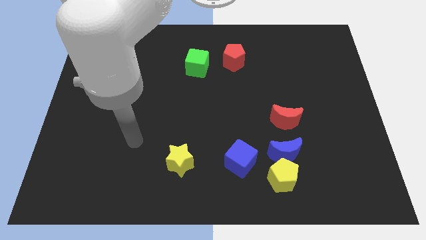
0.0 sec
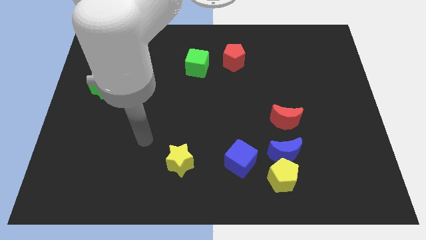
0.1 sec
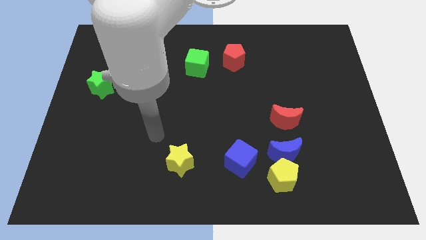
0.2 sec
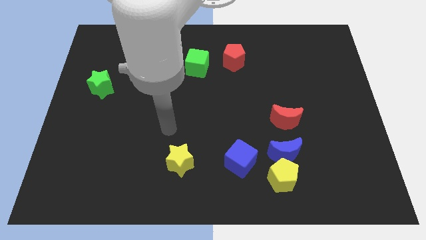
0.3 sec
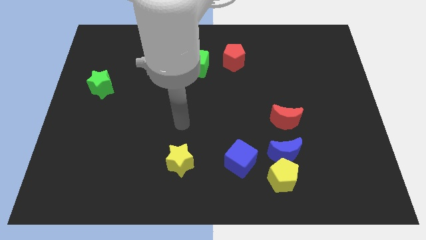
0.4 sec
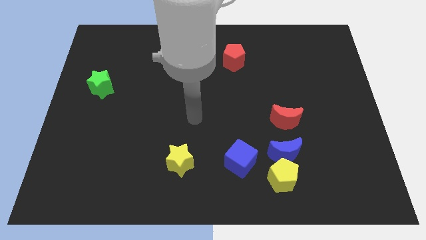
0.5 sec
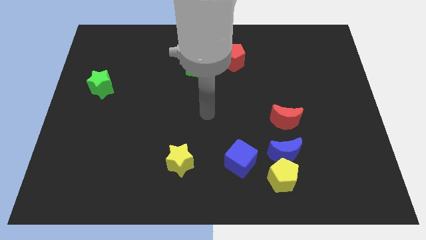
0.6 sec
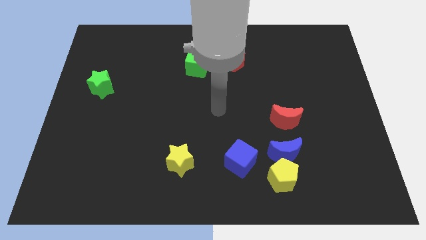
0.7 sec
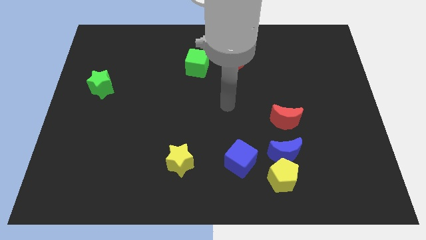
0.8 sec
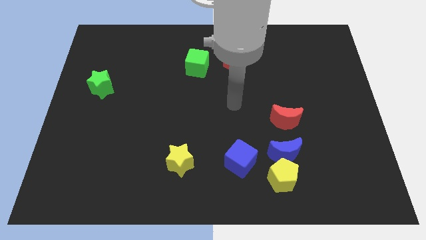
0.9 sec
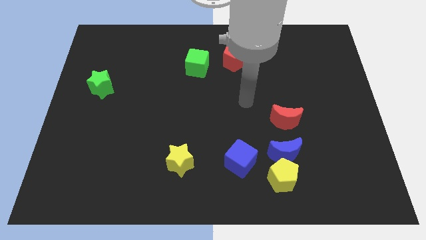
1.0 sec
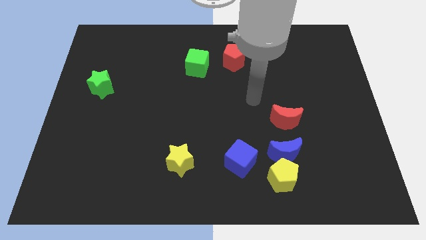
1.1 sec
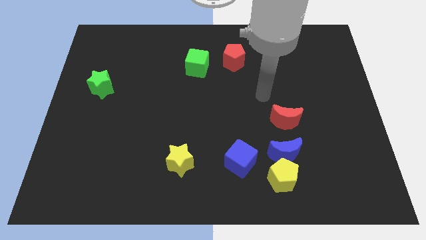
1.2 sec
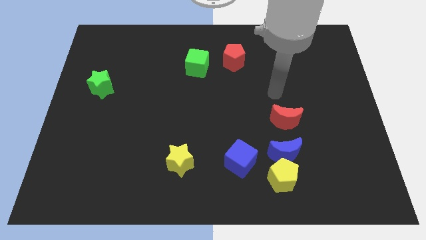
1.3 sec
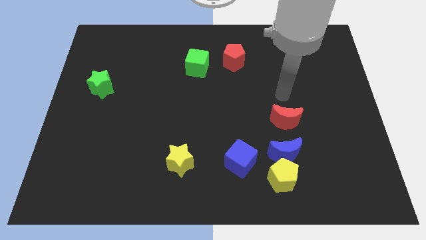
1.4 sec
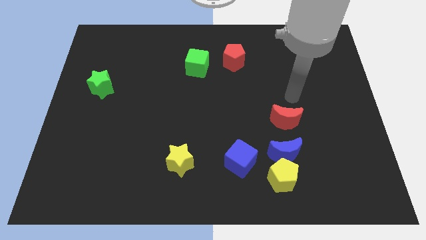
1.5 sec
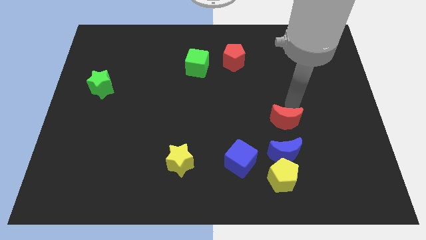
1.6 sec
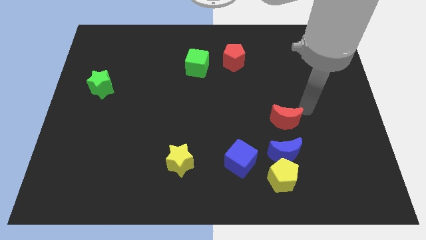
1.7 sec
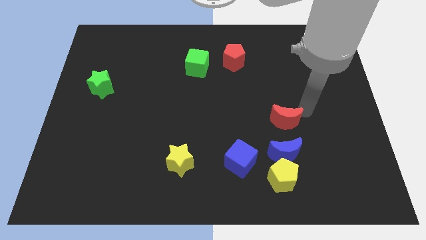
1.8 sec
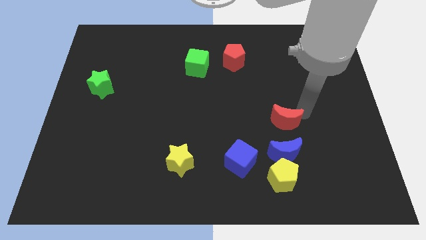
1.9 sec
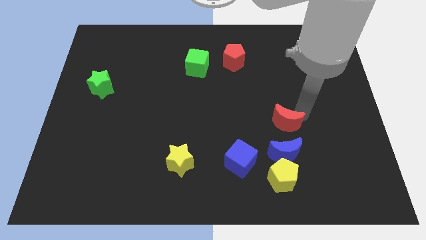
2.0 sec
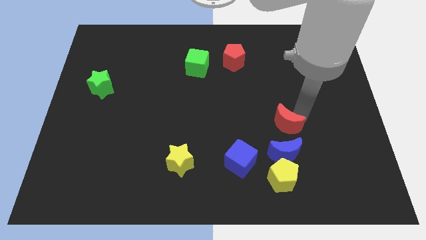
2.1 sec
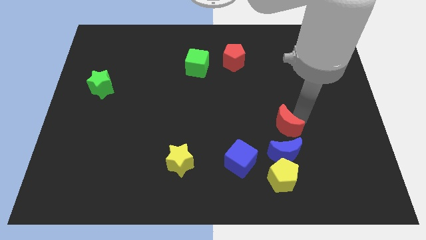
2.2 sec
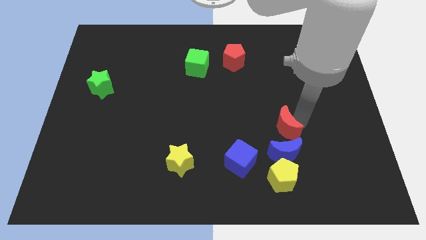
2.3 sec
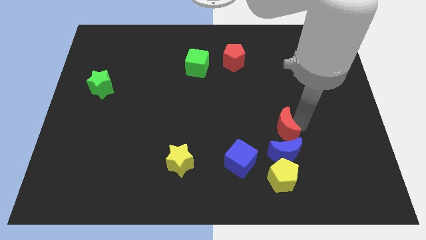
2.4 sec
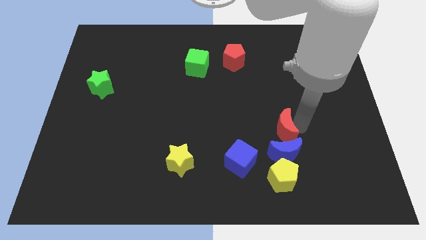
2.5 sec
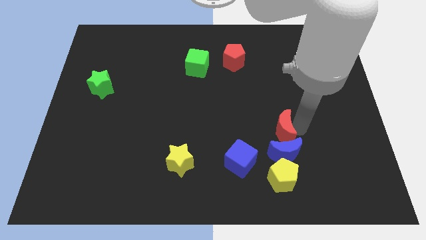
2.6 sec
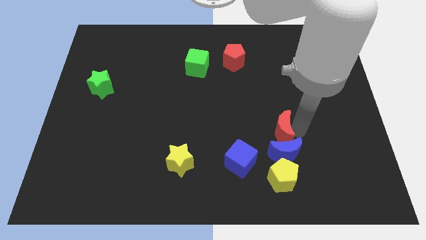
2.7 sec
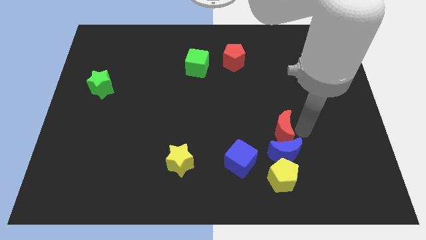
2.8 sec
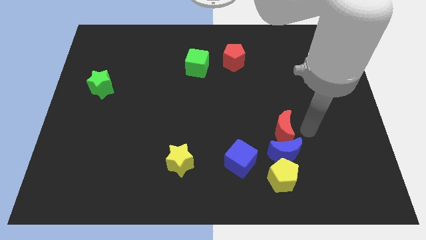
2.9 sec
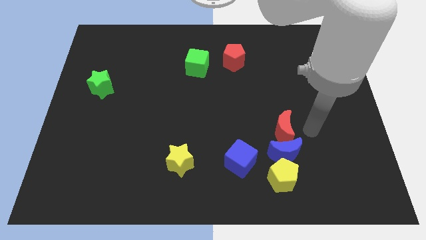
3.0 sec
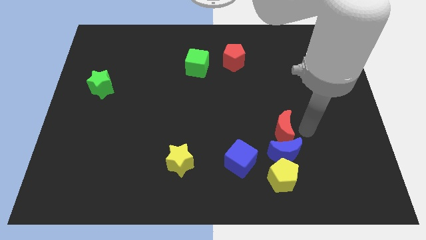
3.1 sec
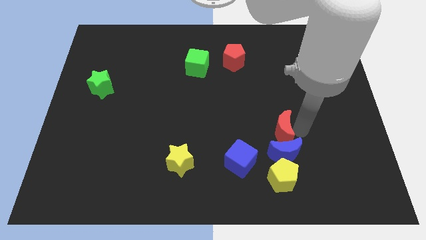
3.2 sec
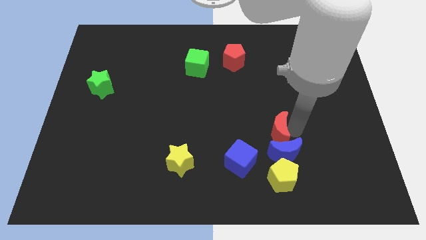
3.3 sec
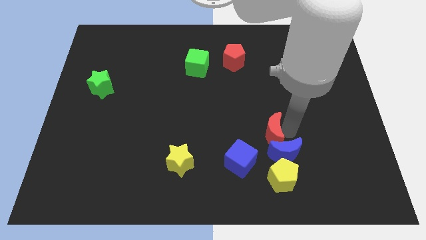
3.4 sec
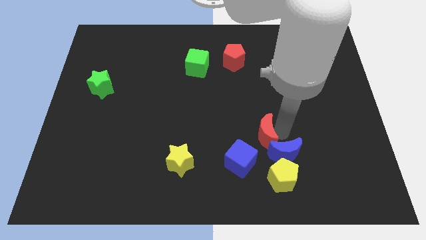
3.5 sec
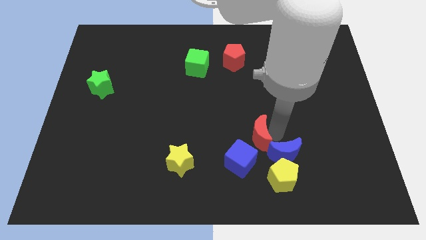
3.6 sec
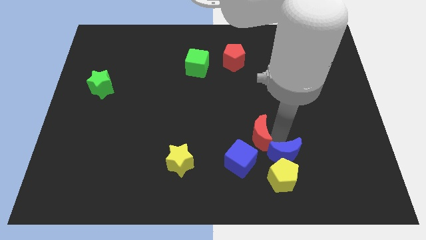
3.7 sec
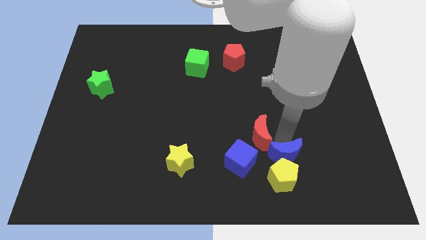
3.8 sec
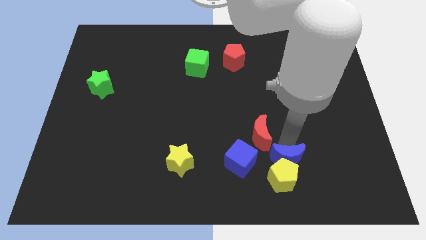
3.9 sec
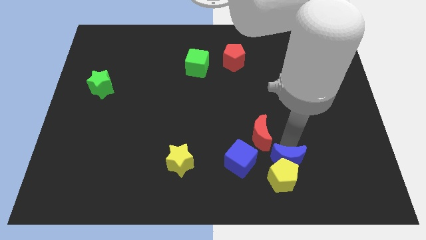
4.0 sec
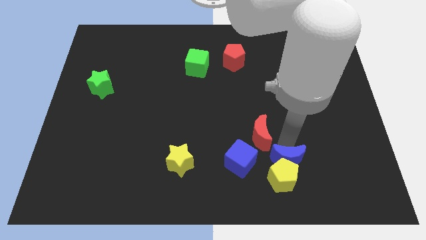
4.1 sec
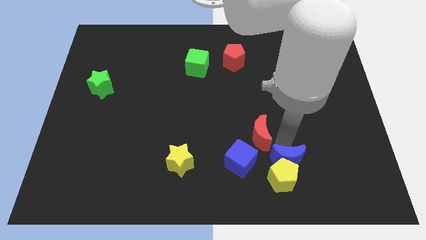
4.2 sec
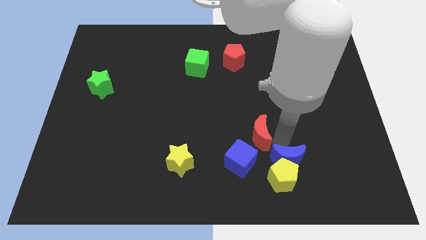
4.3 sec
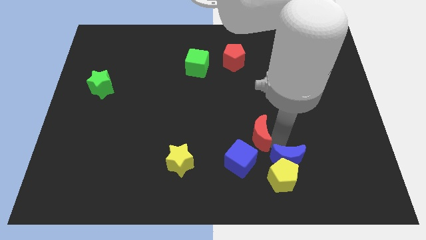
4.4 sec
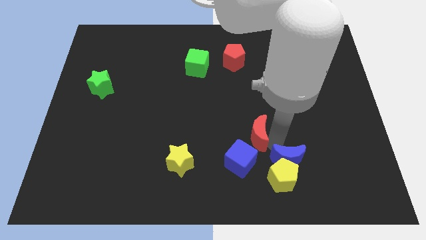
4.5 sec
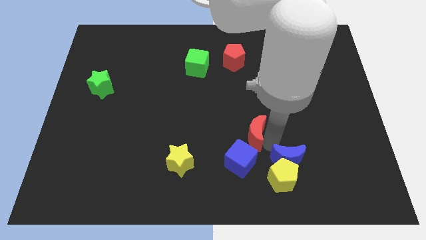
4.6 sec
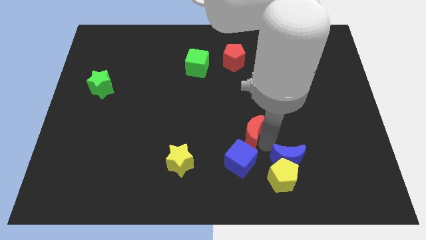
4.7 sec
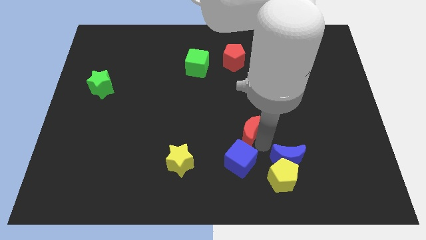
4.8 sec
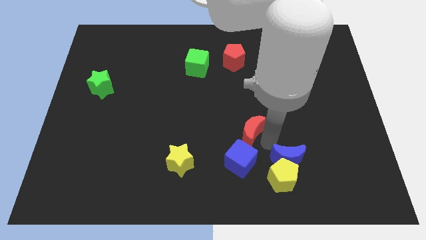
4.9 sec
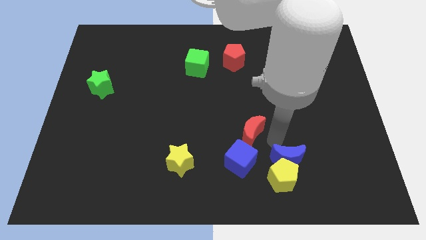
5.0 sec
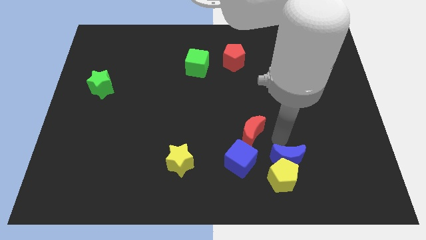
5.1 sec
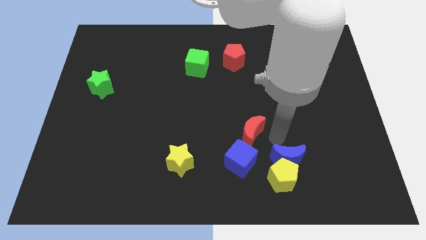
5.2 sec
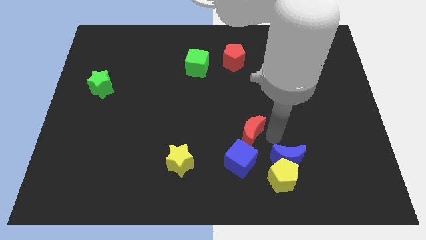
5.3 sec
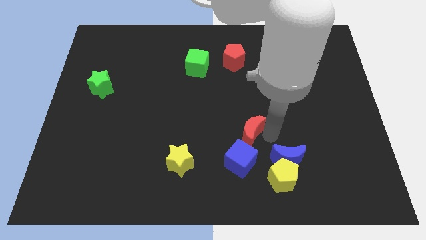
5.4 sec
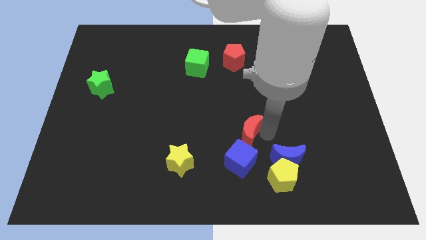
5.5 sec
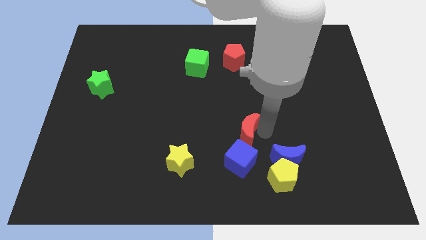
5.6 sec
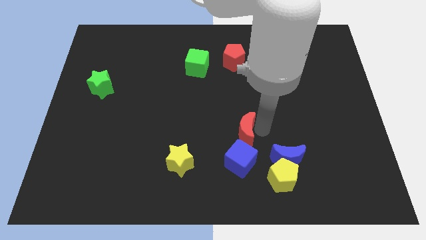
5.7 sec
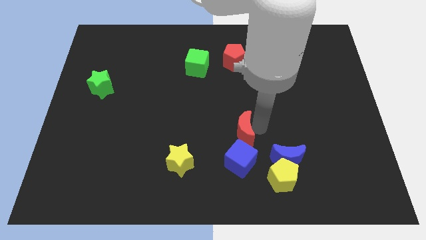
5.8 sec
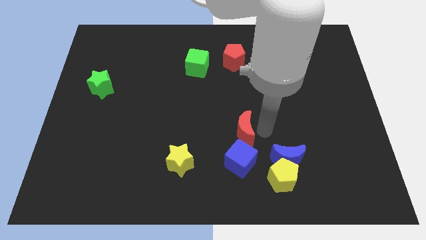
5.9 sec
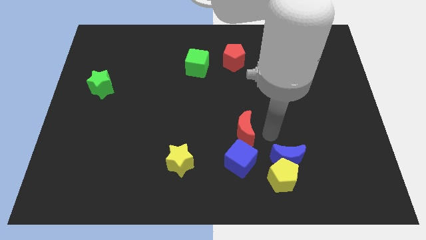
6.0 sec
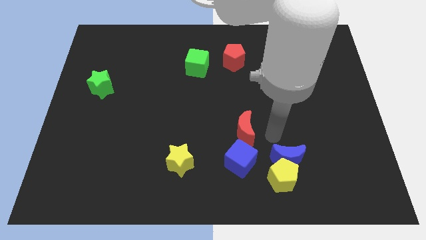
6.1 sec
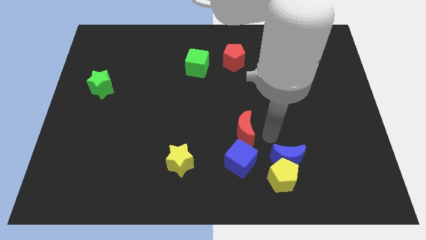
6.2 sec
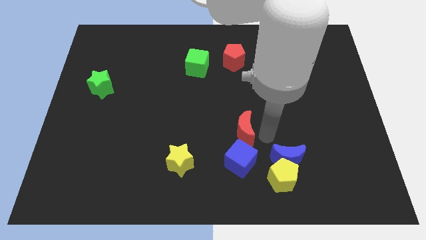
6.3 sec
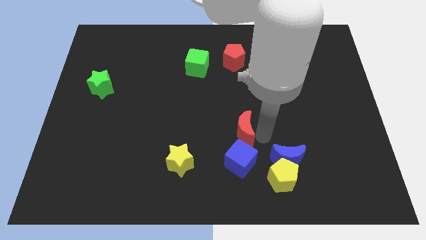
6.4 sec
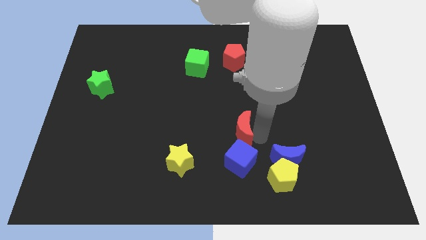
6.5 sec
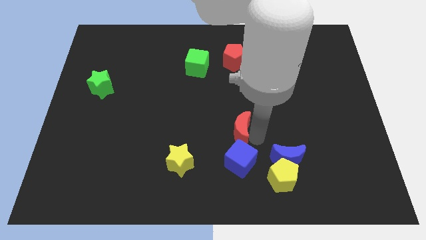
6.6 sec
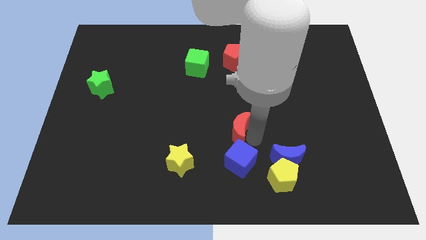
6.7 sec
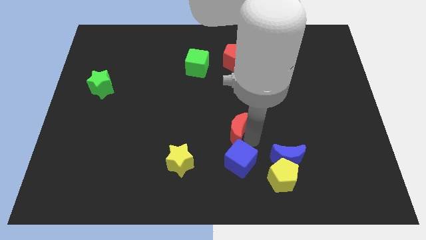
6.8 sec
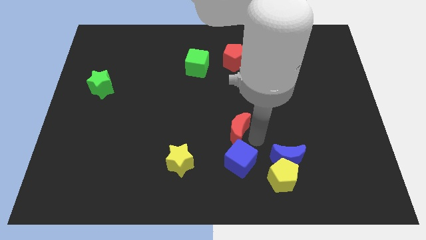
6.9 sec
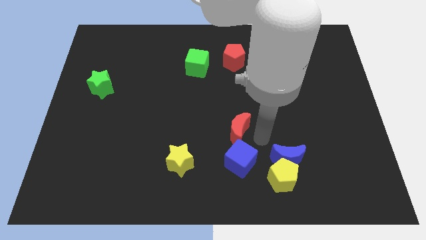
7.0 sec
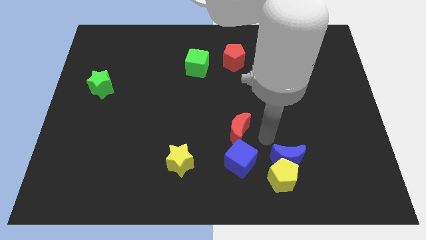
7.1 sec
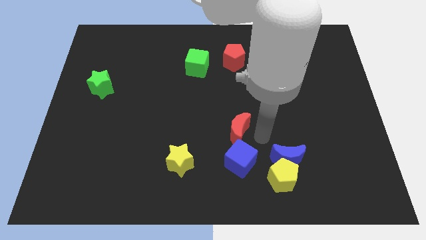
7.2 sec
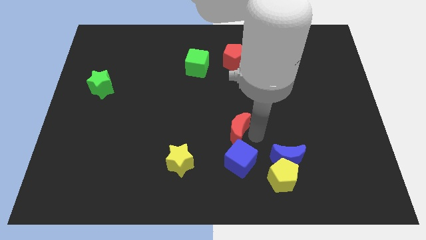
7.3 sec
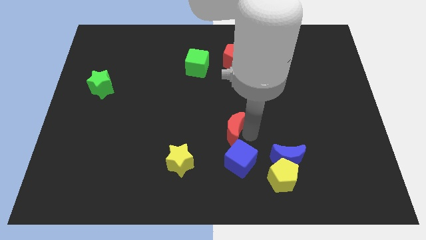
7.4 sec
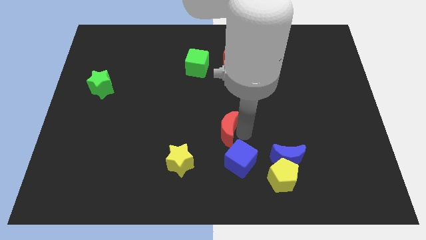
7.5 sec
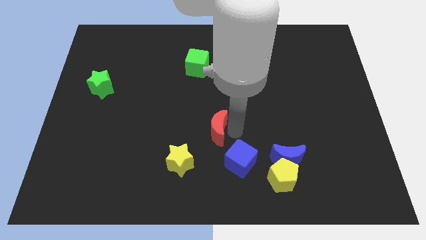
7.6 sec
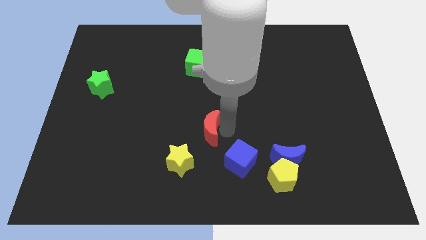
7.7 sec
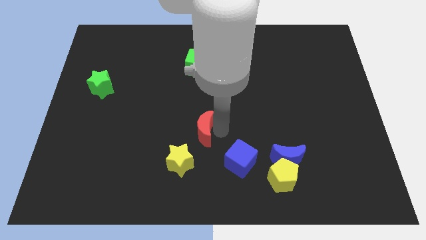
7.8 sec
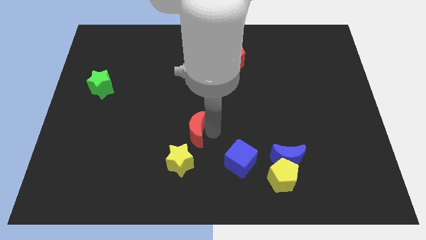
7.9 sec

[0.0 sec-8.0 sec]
move the red moon left

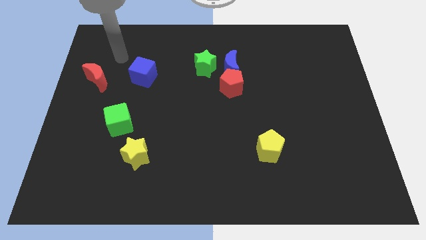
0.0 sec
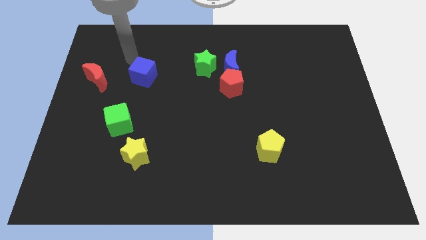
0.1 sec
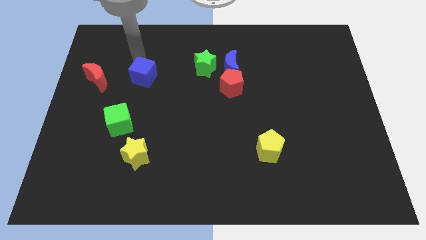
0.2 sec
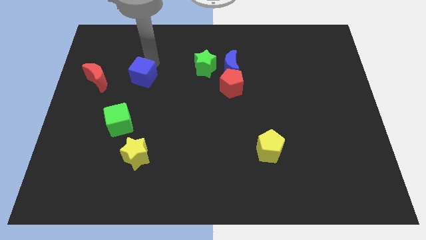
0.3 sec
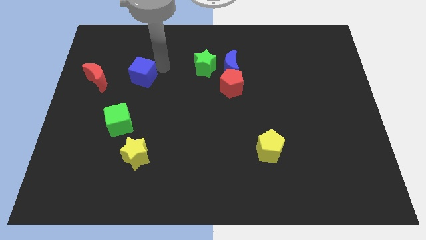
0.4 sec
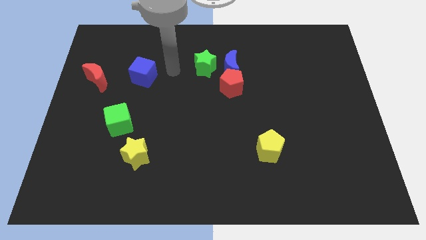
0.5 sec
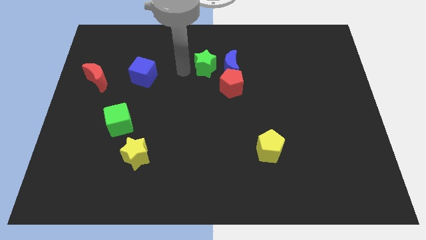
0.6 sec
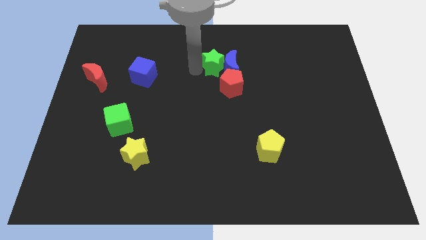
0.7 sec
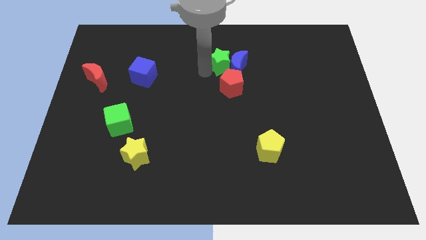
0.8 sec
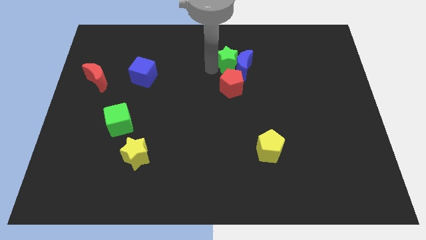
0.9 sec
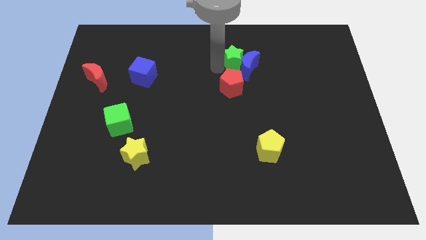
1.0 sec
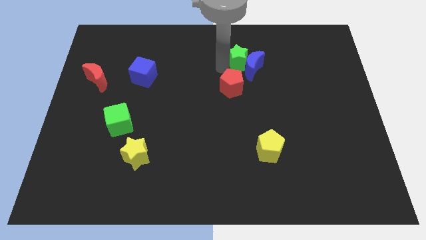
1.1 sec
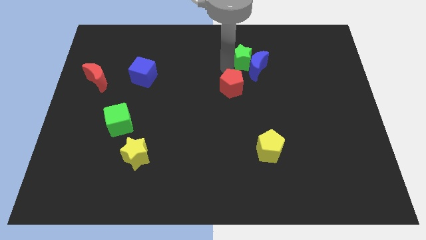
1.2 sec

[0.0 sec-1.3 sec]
slide the blue moon to the right a bit
